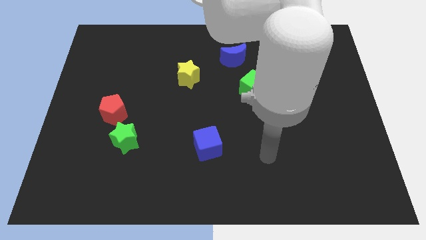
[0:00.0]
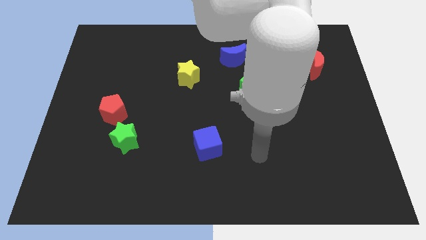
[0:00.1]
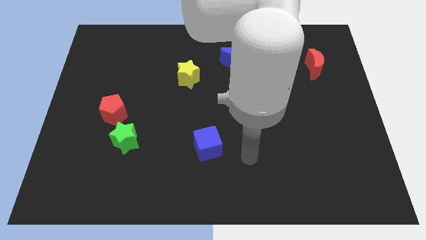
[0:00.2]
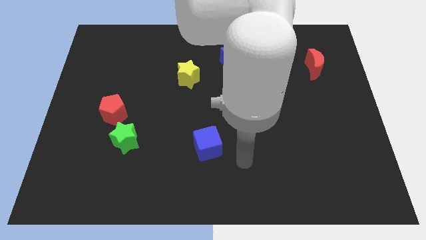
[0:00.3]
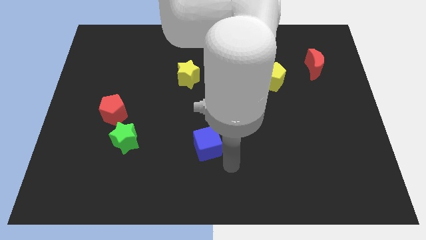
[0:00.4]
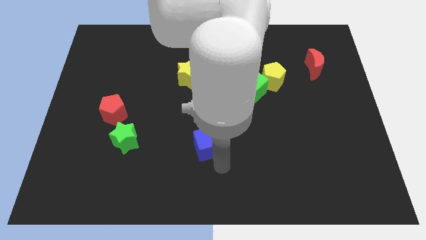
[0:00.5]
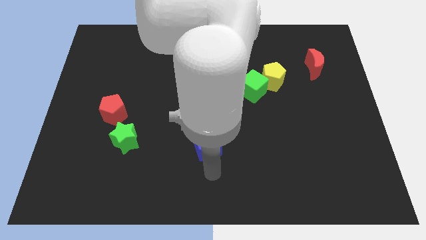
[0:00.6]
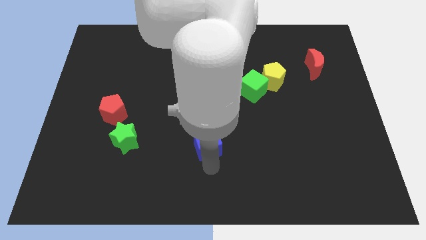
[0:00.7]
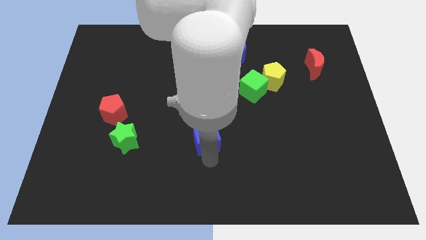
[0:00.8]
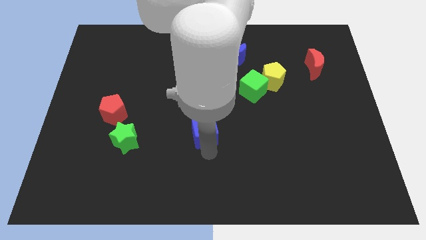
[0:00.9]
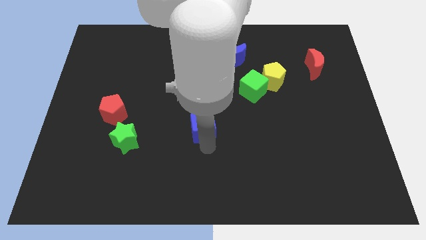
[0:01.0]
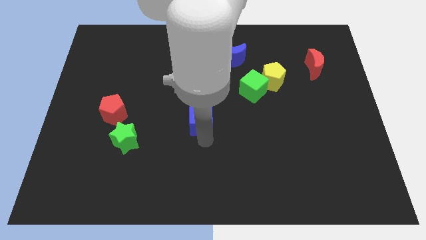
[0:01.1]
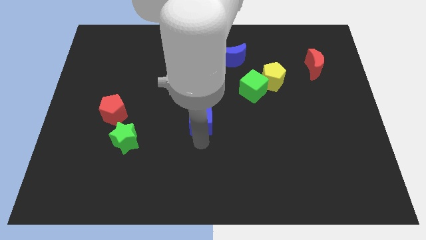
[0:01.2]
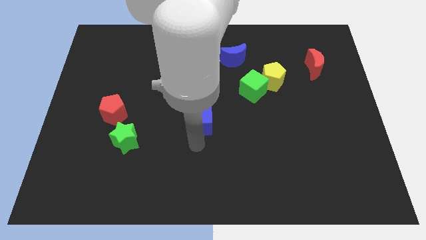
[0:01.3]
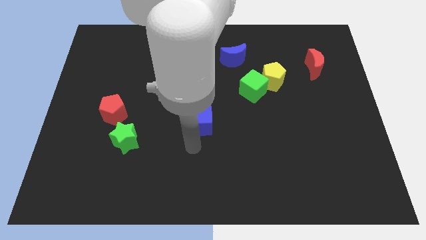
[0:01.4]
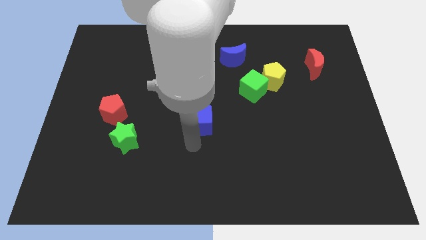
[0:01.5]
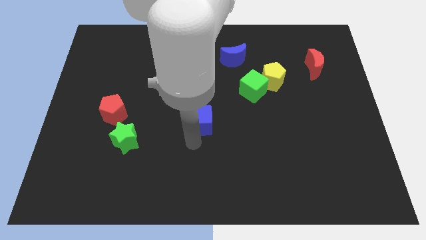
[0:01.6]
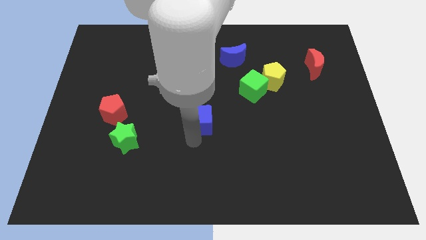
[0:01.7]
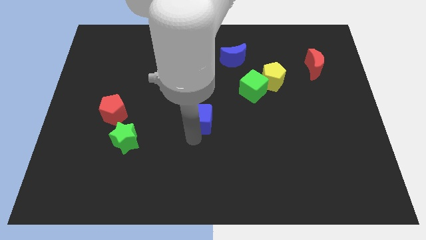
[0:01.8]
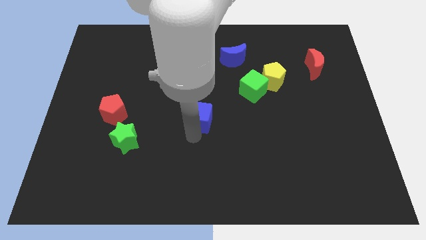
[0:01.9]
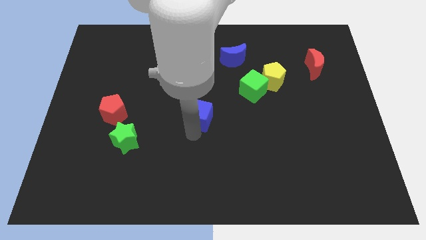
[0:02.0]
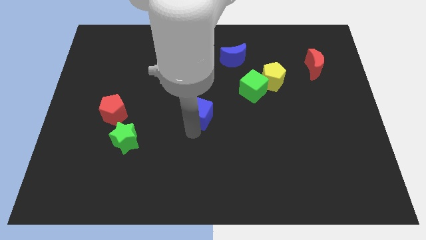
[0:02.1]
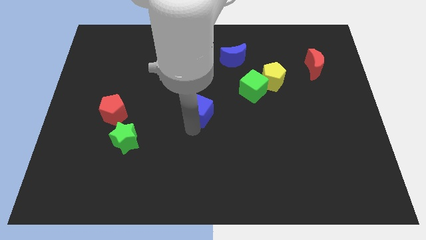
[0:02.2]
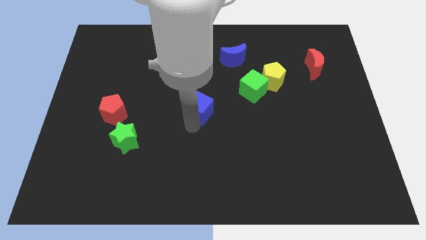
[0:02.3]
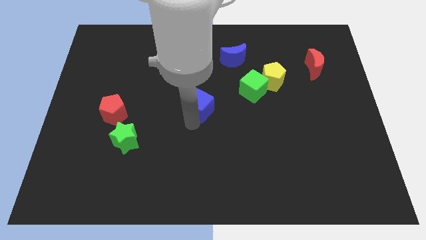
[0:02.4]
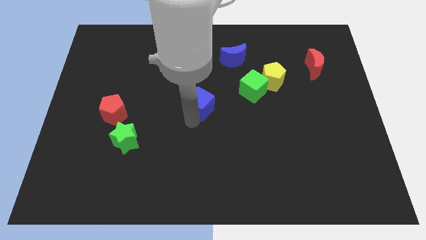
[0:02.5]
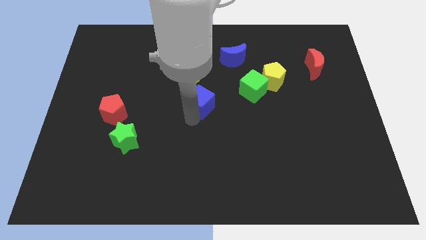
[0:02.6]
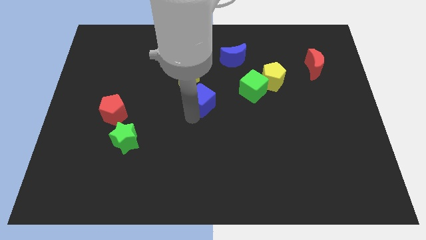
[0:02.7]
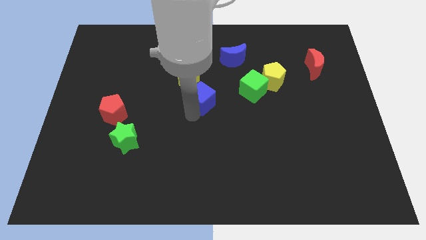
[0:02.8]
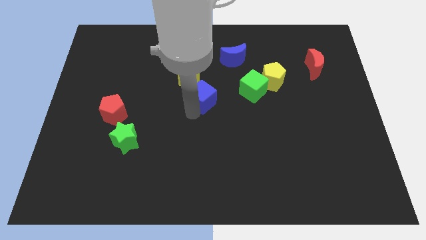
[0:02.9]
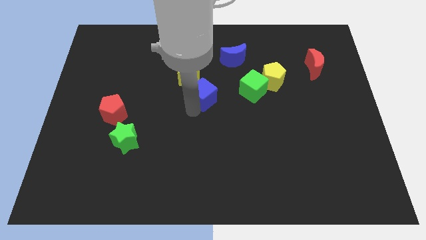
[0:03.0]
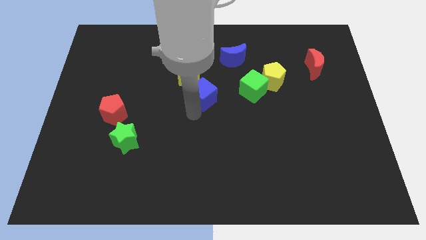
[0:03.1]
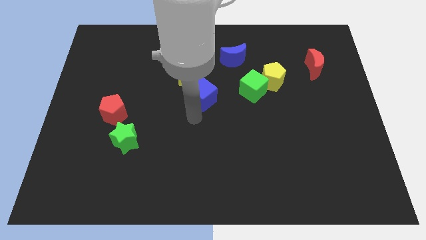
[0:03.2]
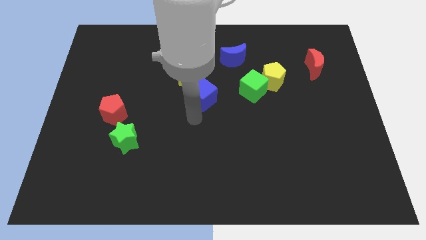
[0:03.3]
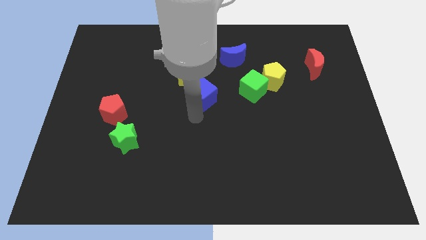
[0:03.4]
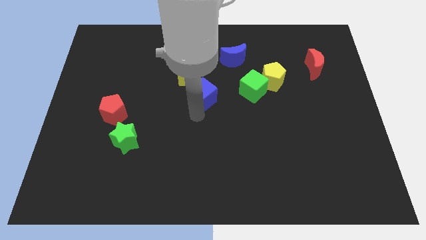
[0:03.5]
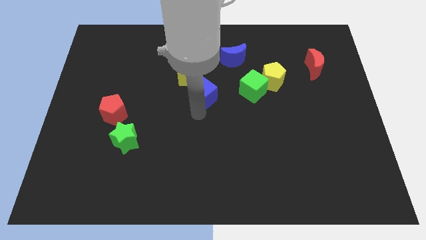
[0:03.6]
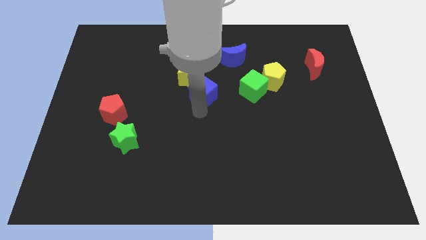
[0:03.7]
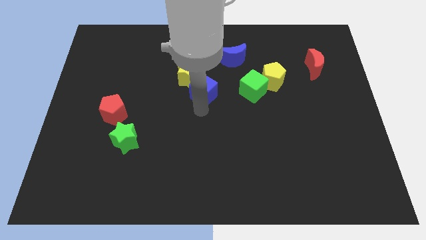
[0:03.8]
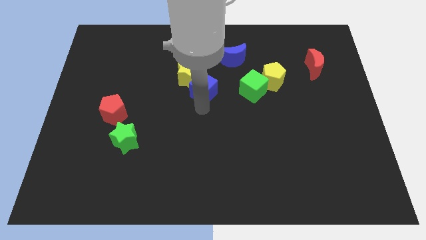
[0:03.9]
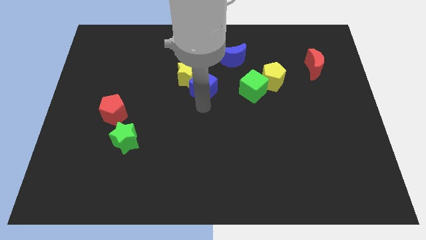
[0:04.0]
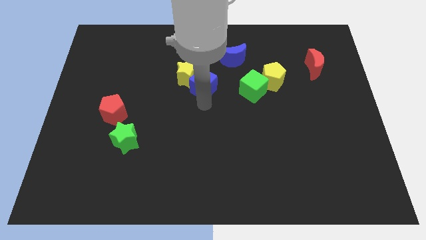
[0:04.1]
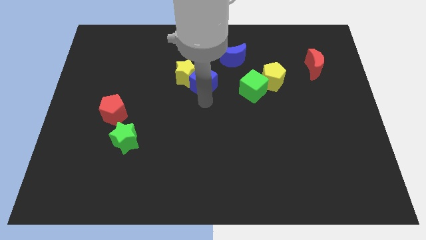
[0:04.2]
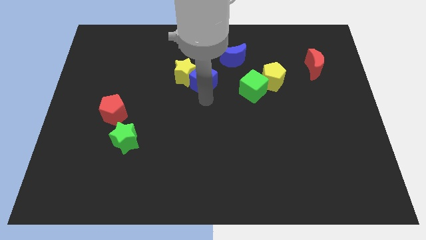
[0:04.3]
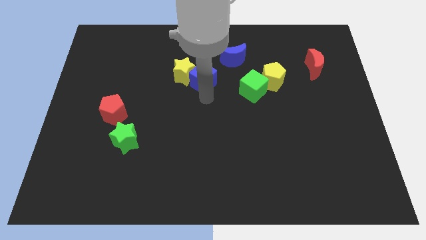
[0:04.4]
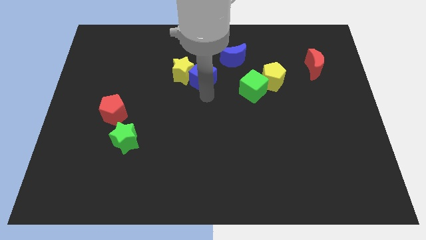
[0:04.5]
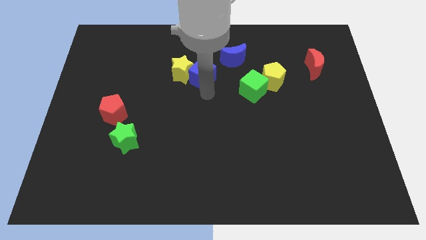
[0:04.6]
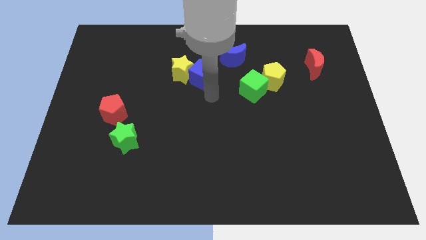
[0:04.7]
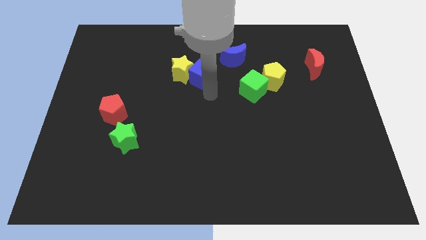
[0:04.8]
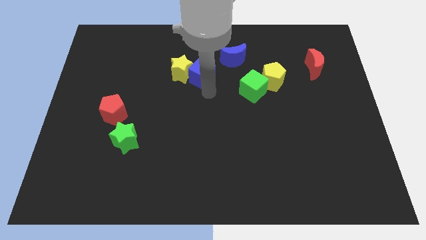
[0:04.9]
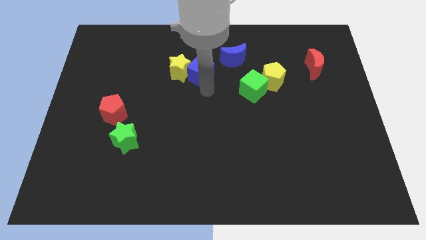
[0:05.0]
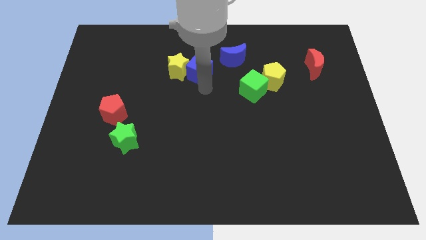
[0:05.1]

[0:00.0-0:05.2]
slide the blue cube to the left of the blue moon

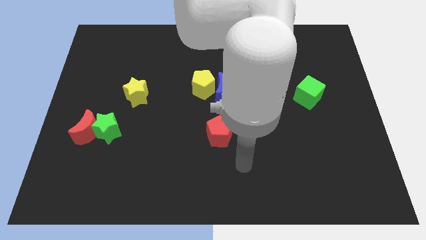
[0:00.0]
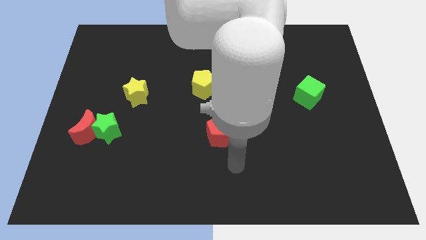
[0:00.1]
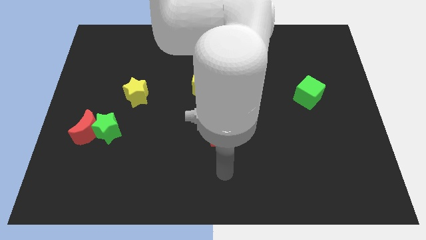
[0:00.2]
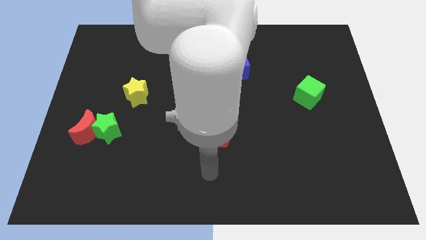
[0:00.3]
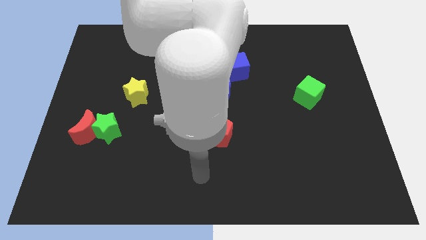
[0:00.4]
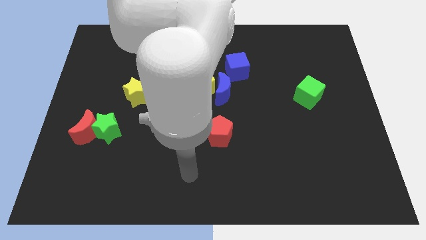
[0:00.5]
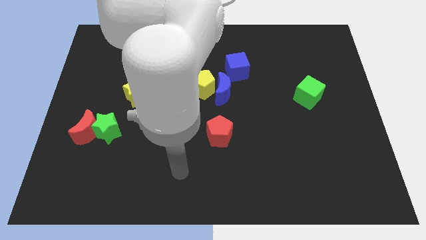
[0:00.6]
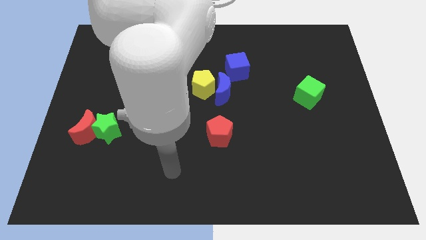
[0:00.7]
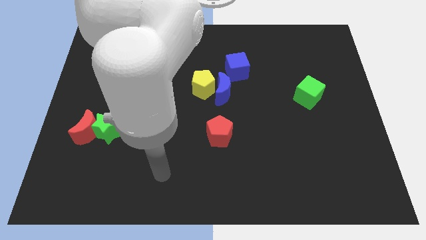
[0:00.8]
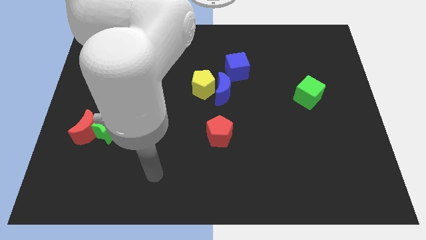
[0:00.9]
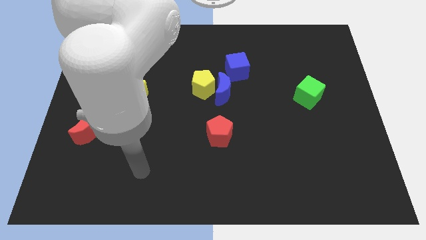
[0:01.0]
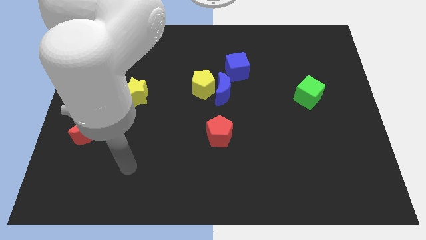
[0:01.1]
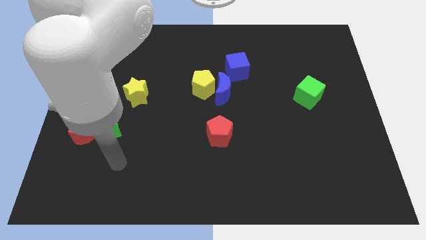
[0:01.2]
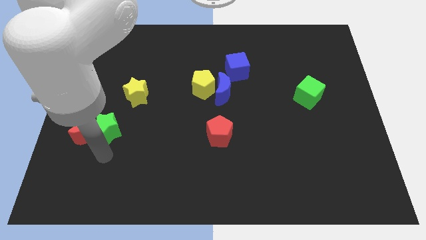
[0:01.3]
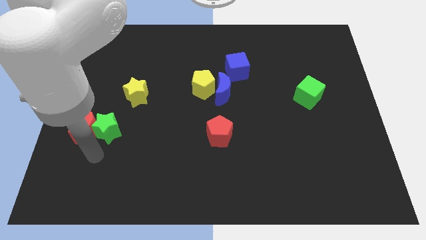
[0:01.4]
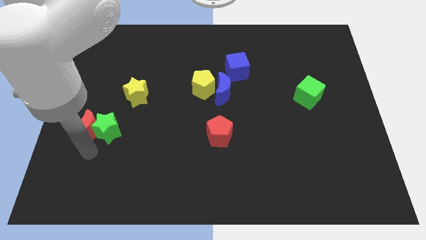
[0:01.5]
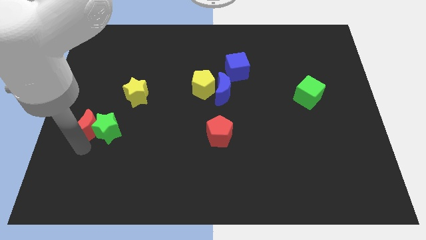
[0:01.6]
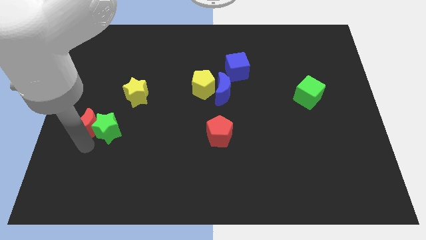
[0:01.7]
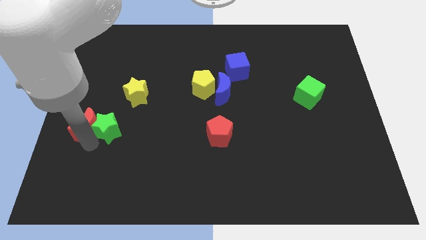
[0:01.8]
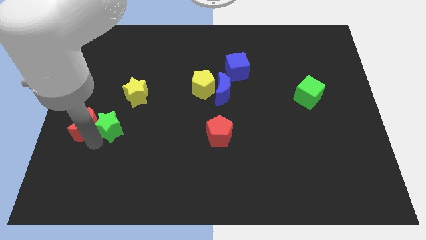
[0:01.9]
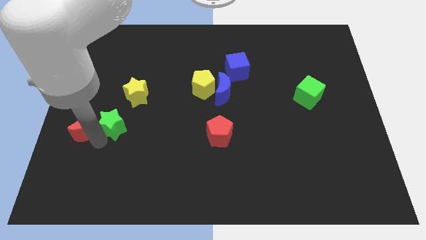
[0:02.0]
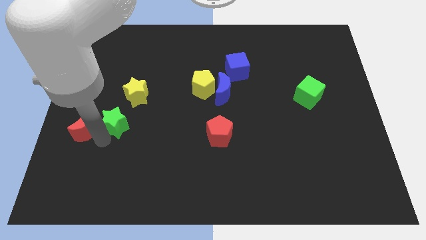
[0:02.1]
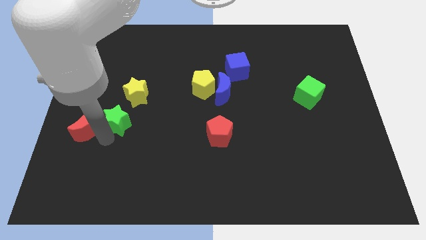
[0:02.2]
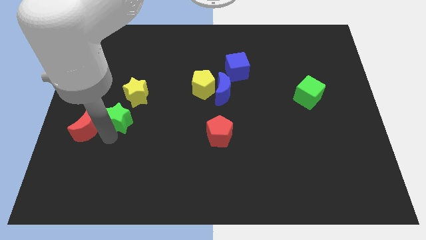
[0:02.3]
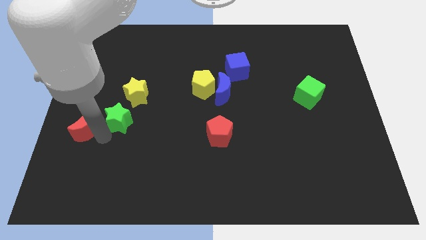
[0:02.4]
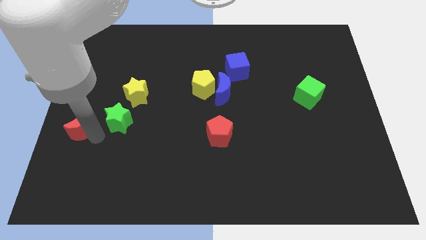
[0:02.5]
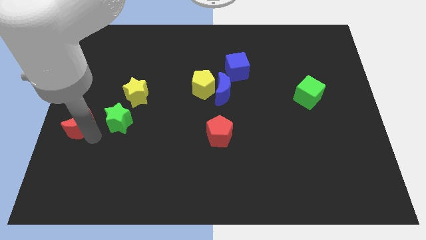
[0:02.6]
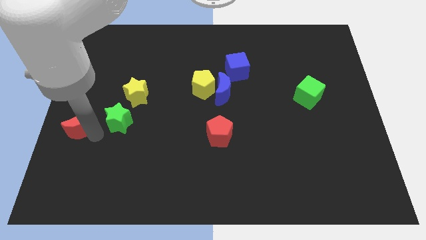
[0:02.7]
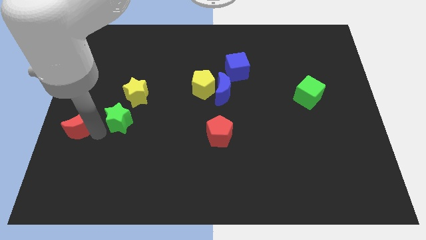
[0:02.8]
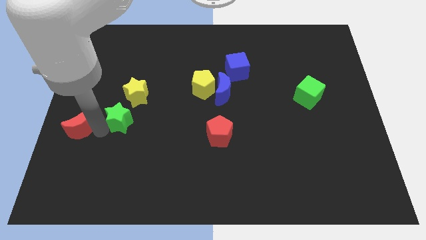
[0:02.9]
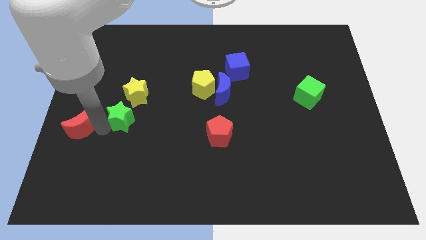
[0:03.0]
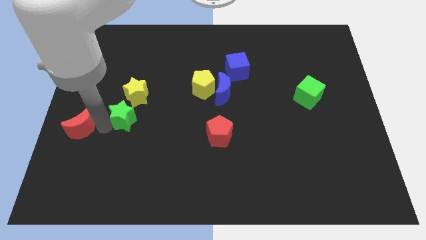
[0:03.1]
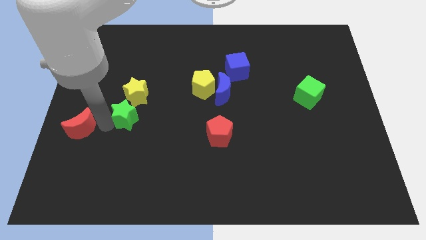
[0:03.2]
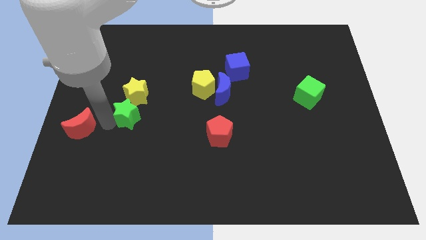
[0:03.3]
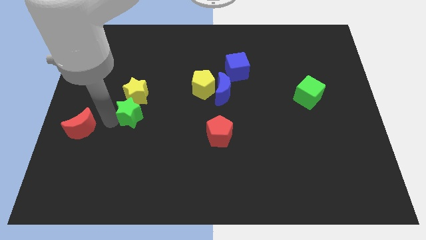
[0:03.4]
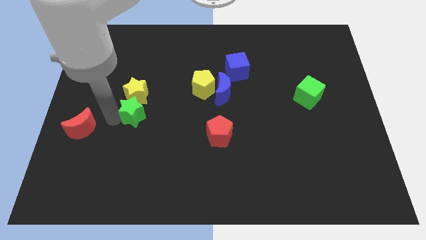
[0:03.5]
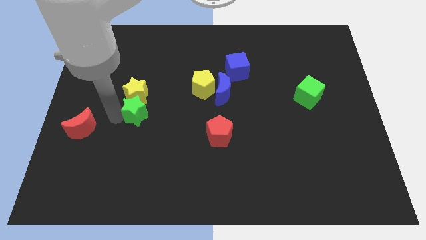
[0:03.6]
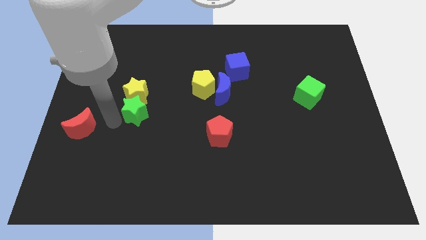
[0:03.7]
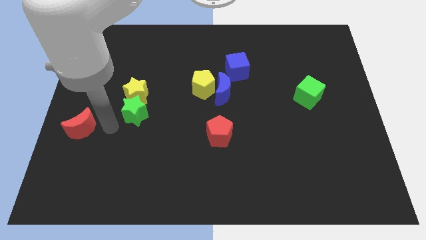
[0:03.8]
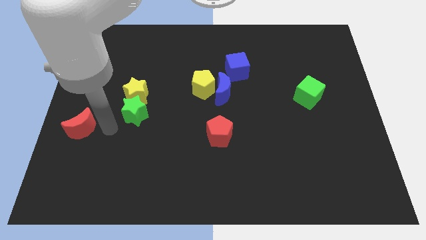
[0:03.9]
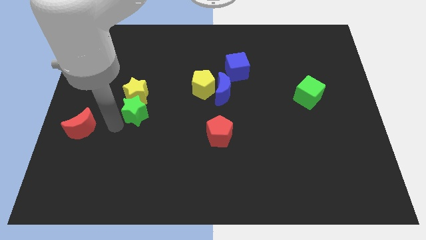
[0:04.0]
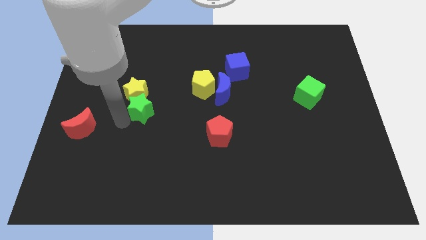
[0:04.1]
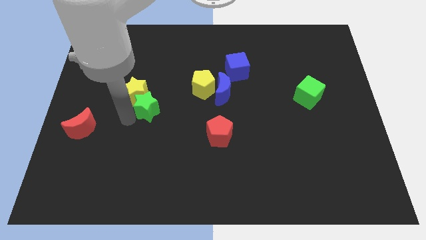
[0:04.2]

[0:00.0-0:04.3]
slide the green star just right of the yellow star
